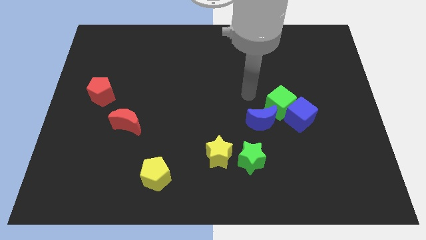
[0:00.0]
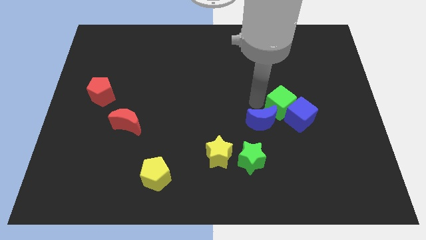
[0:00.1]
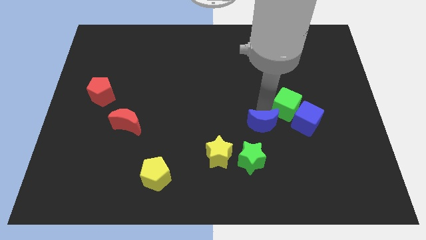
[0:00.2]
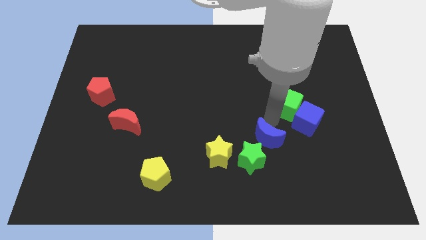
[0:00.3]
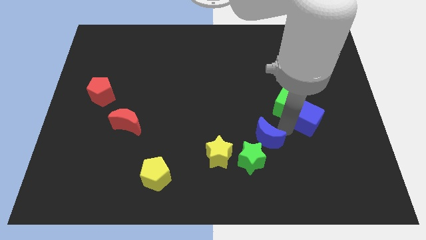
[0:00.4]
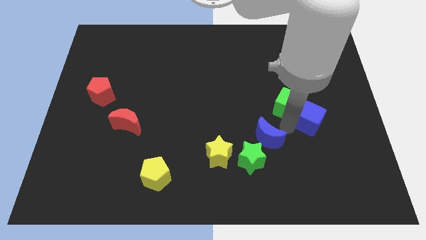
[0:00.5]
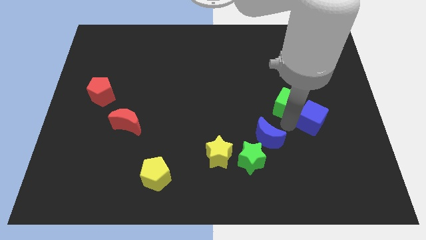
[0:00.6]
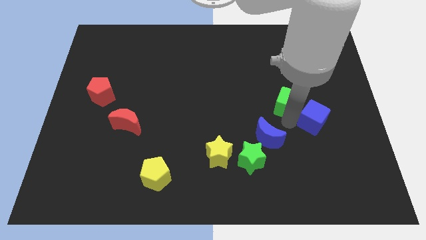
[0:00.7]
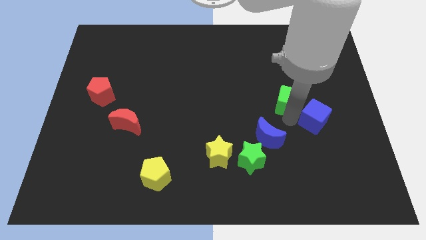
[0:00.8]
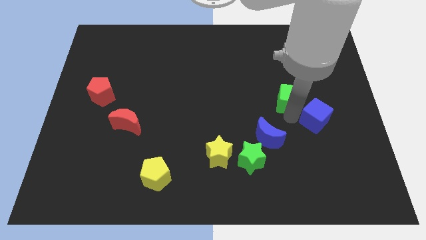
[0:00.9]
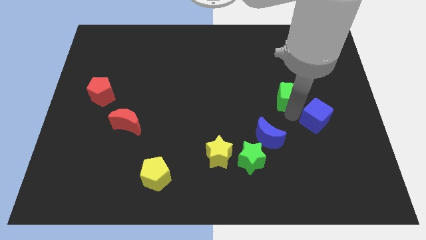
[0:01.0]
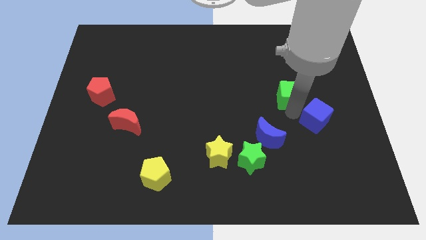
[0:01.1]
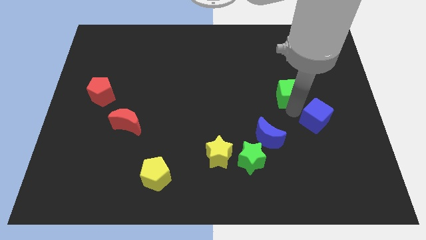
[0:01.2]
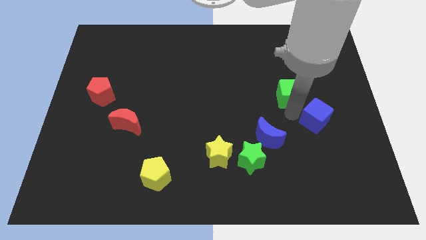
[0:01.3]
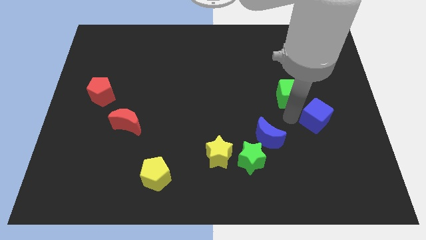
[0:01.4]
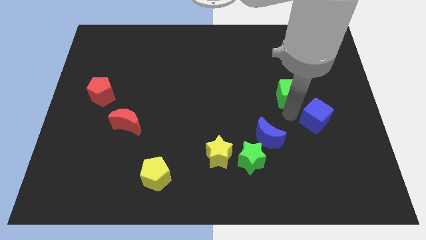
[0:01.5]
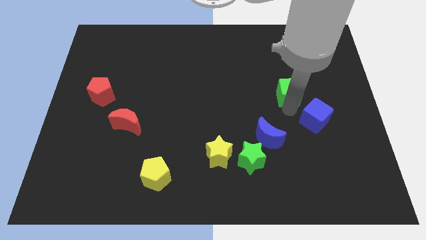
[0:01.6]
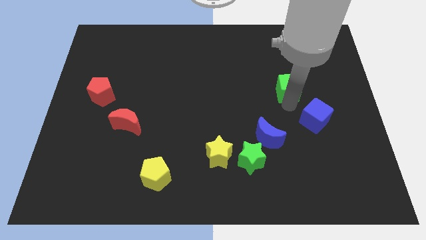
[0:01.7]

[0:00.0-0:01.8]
separate the green cube from the blue cube and blue moon

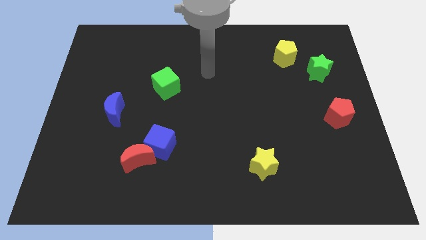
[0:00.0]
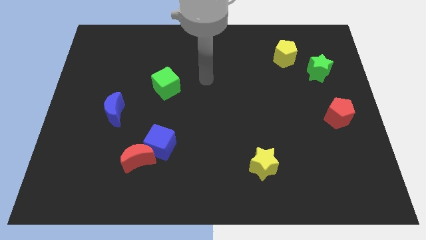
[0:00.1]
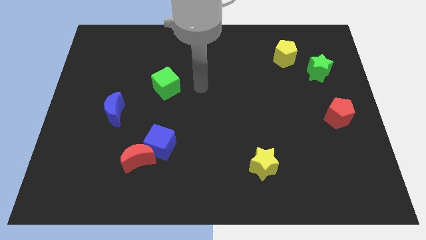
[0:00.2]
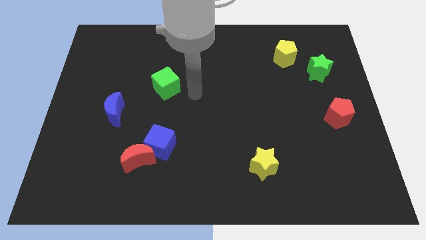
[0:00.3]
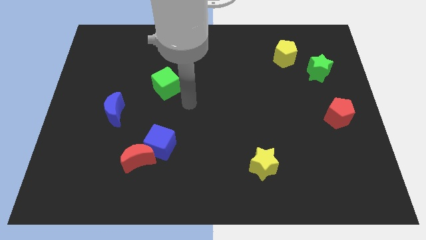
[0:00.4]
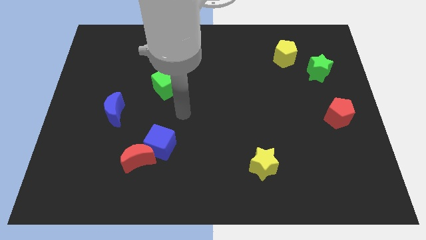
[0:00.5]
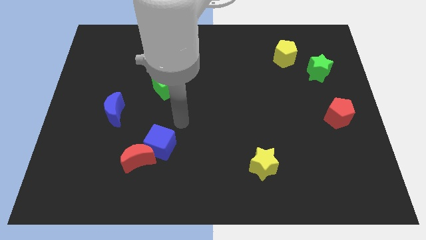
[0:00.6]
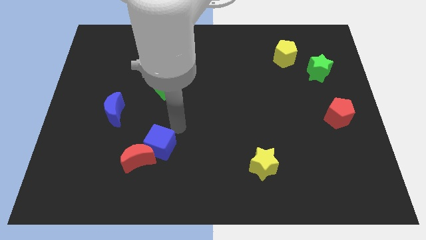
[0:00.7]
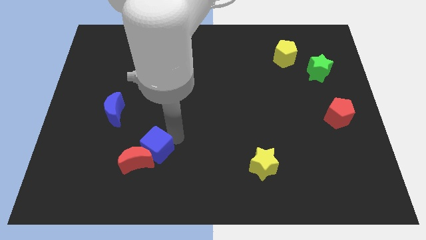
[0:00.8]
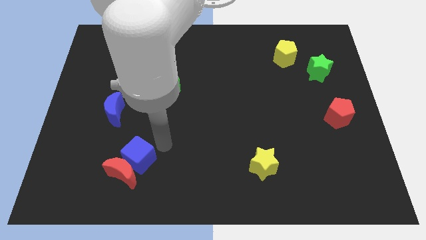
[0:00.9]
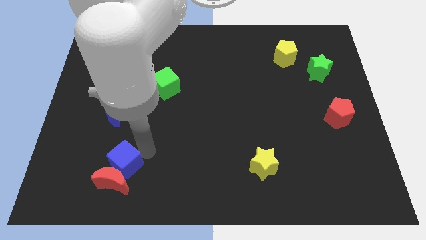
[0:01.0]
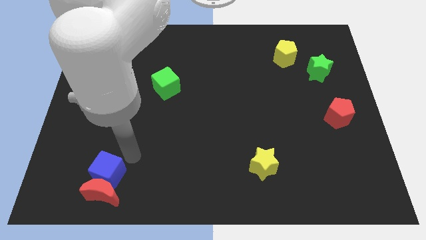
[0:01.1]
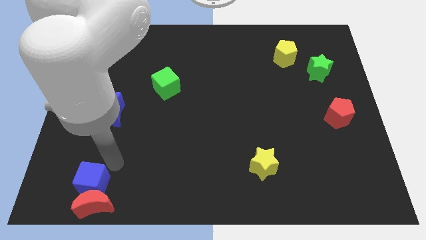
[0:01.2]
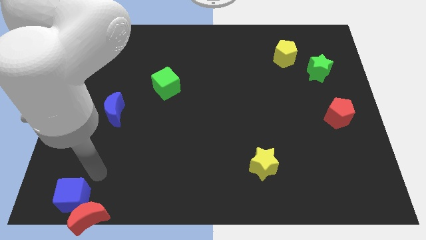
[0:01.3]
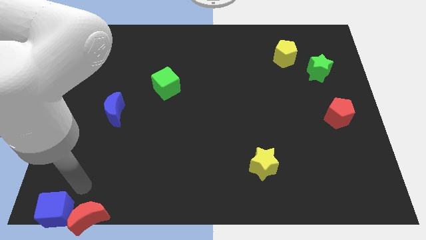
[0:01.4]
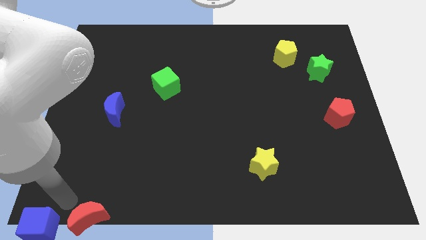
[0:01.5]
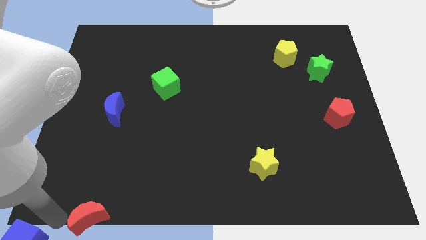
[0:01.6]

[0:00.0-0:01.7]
pull the red moon apart from the blue cube

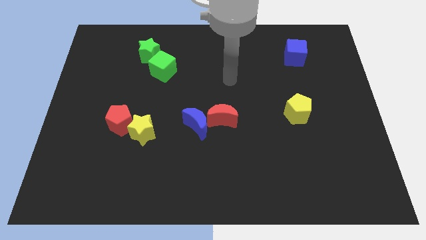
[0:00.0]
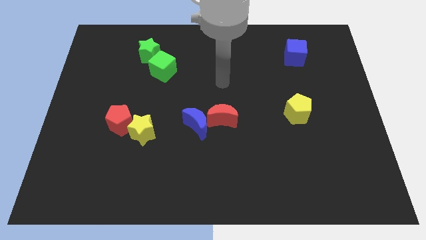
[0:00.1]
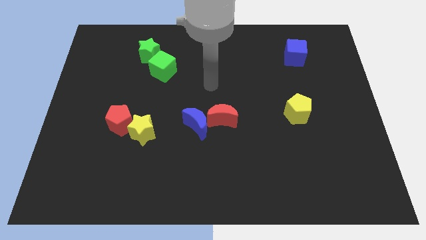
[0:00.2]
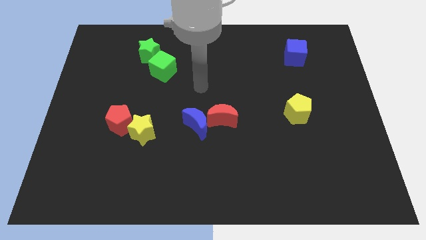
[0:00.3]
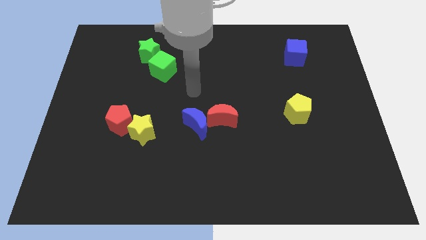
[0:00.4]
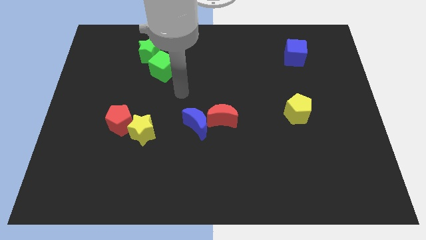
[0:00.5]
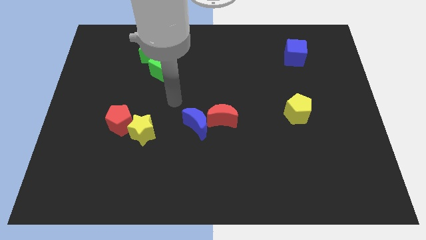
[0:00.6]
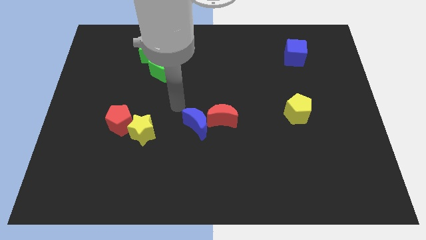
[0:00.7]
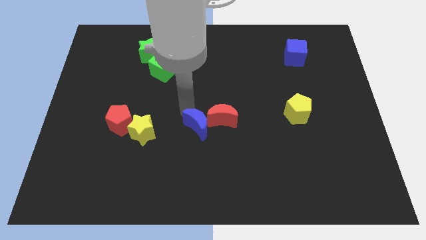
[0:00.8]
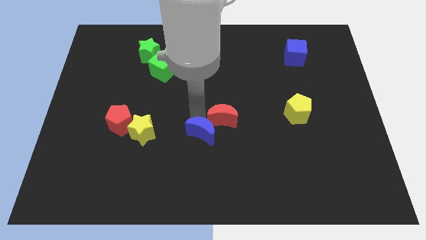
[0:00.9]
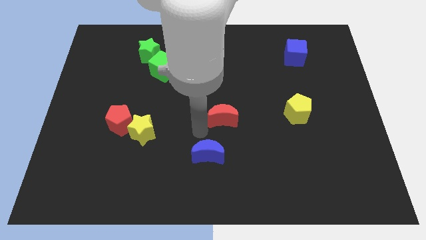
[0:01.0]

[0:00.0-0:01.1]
separate the red moon from the blue moon

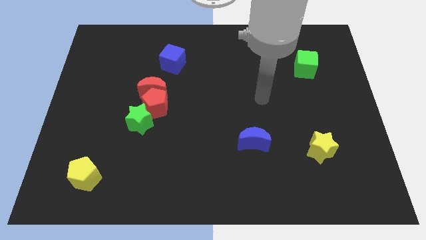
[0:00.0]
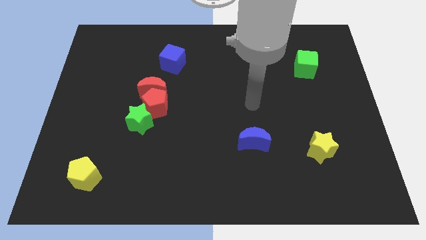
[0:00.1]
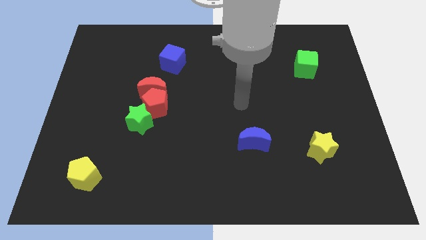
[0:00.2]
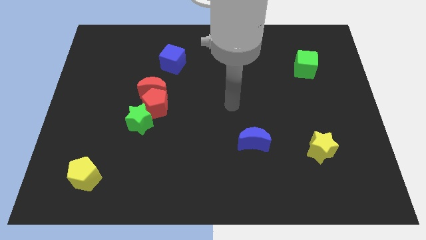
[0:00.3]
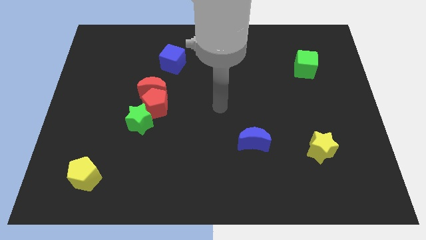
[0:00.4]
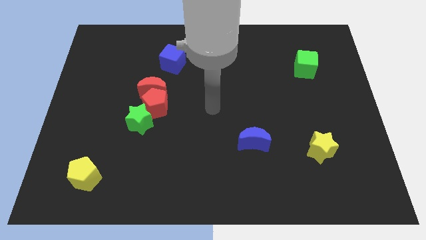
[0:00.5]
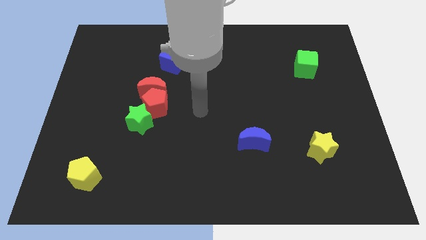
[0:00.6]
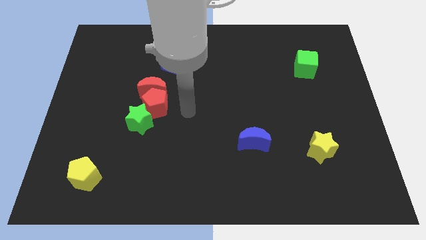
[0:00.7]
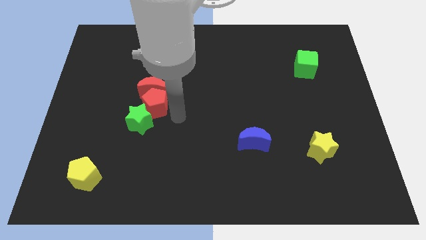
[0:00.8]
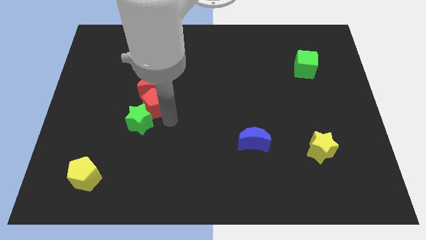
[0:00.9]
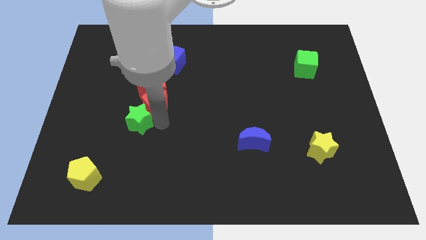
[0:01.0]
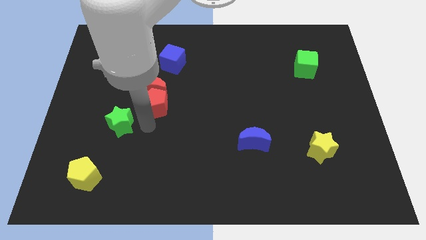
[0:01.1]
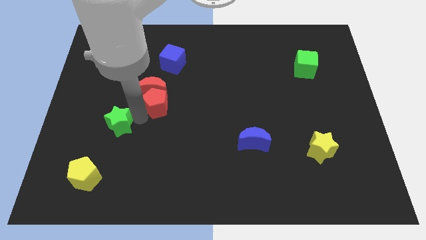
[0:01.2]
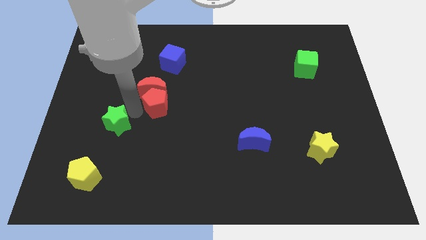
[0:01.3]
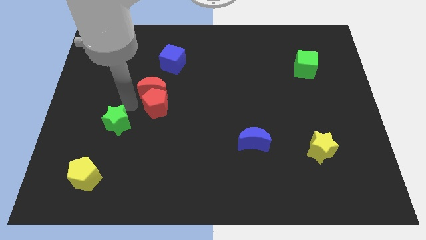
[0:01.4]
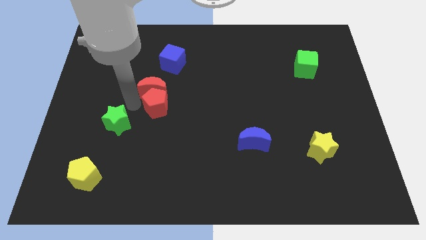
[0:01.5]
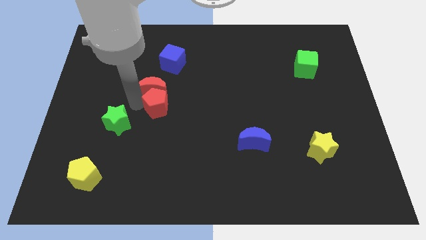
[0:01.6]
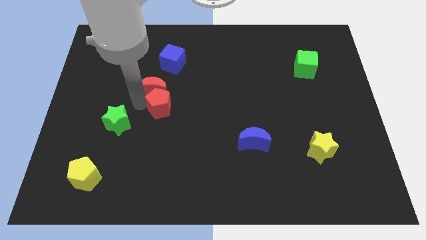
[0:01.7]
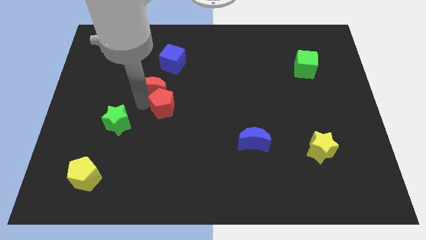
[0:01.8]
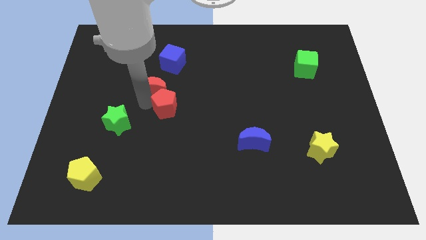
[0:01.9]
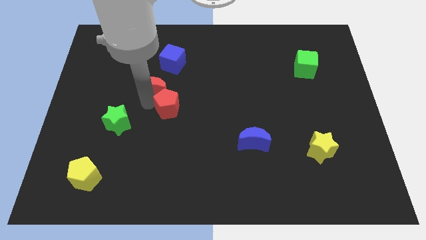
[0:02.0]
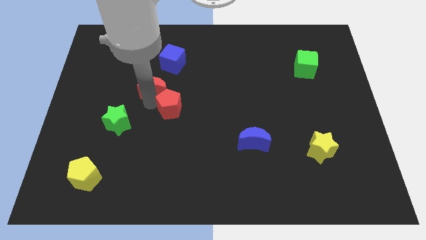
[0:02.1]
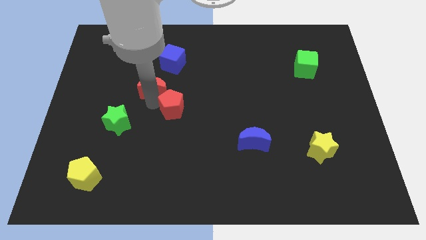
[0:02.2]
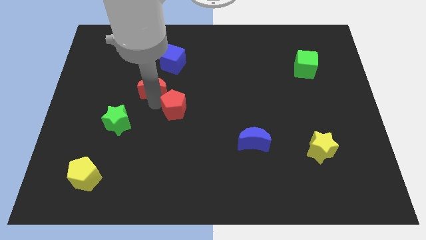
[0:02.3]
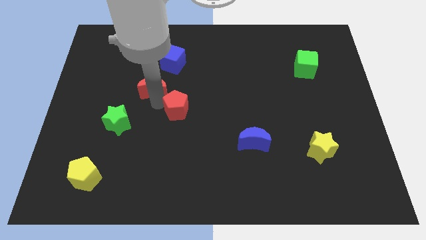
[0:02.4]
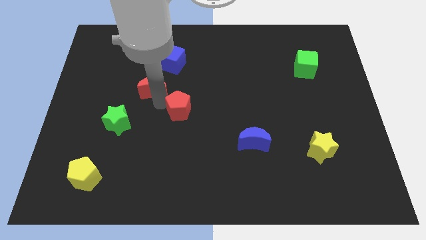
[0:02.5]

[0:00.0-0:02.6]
separate the red pentagon from the red moon and green star

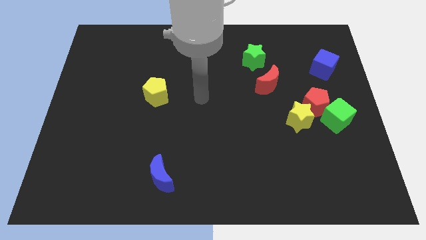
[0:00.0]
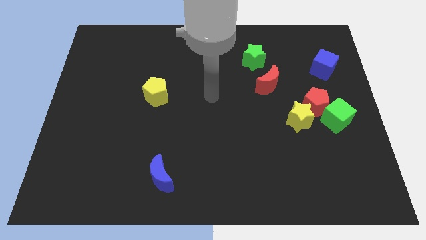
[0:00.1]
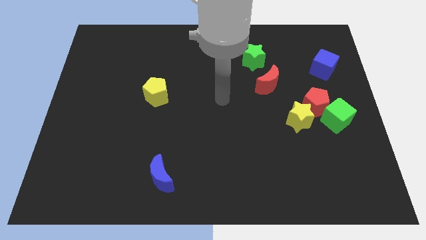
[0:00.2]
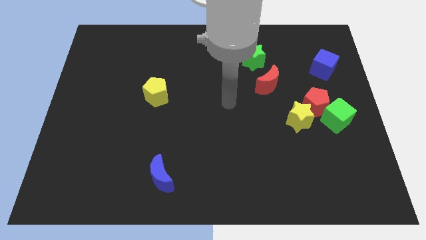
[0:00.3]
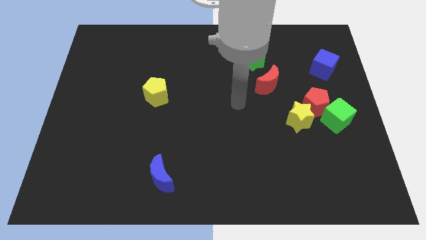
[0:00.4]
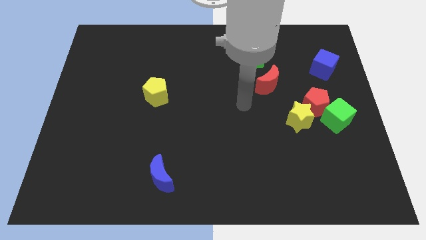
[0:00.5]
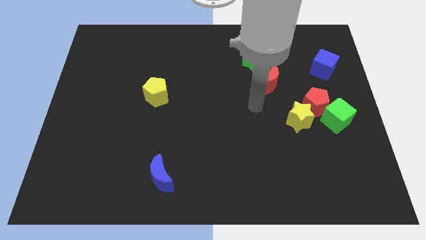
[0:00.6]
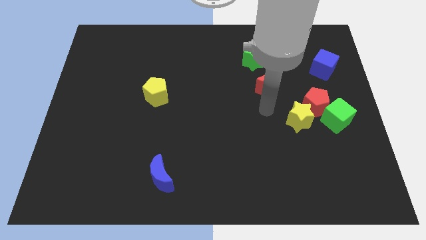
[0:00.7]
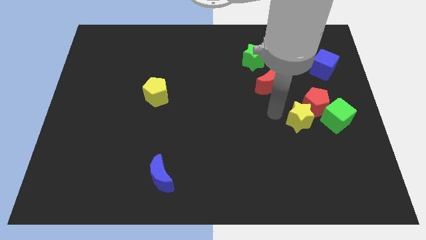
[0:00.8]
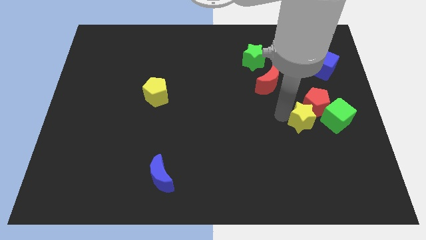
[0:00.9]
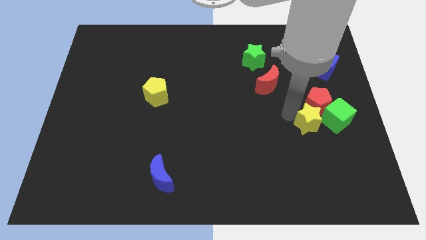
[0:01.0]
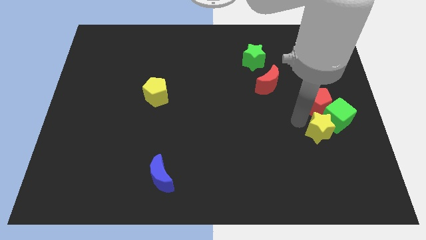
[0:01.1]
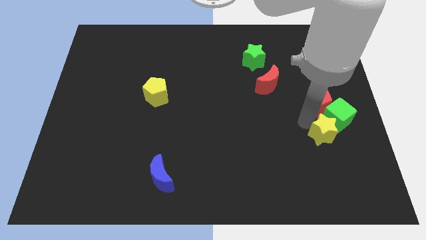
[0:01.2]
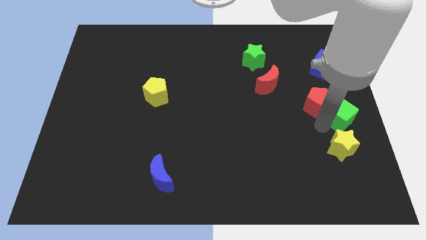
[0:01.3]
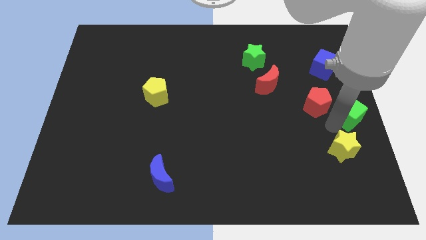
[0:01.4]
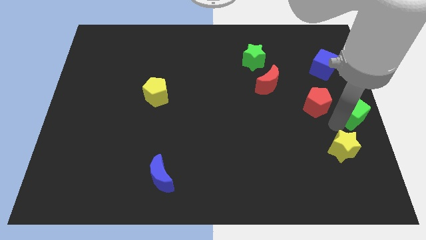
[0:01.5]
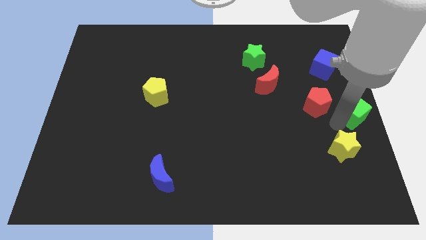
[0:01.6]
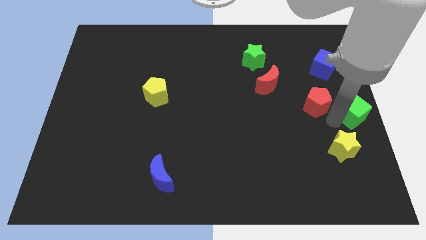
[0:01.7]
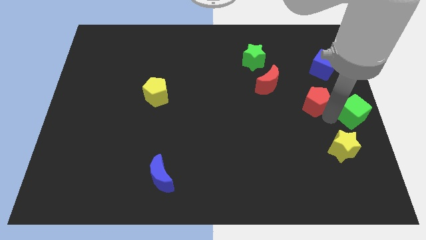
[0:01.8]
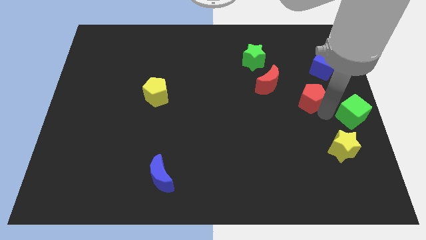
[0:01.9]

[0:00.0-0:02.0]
pull the red pentagon apart from the green cube and yellow star

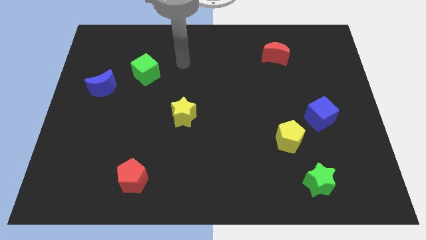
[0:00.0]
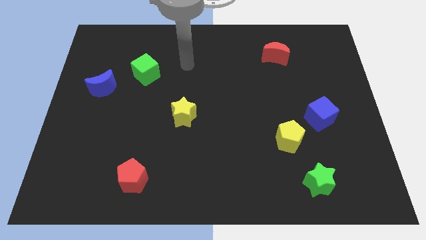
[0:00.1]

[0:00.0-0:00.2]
separate the blue cube from the yellow pentagon
